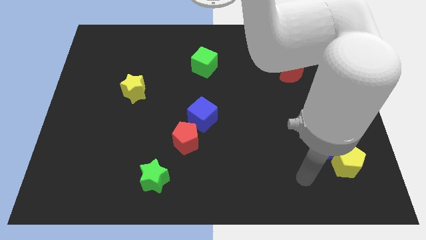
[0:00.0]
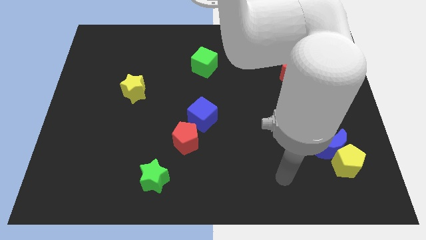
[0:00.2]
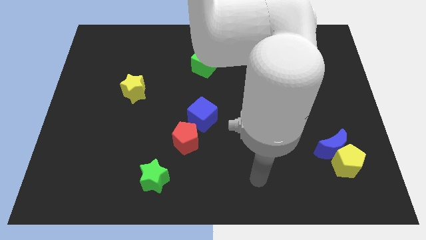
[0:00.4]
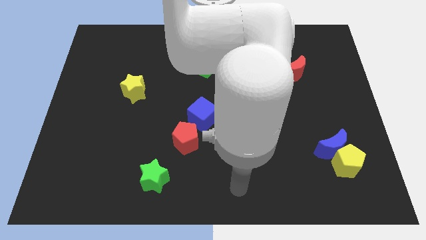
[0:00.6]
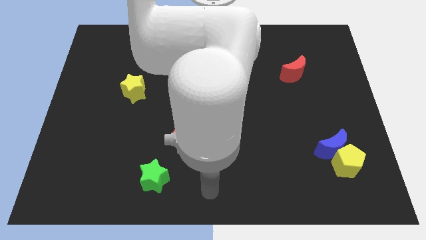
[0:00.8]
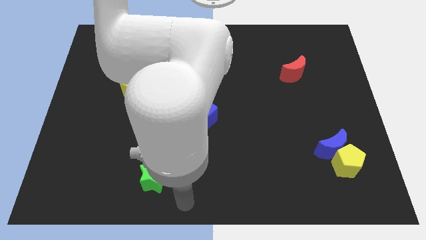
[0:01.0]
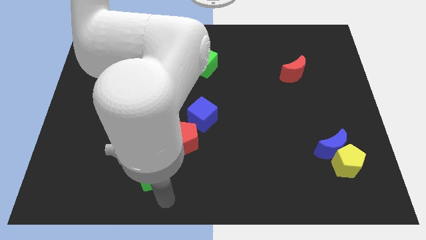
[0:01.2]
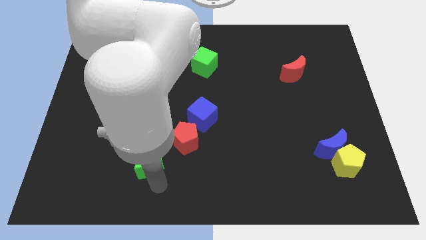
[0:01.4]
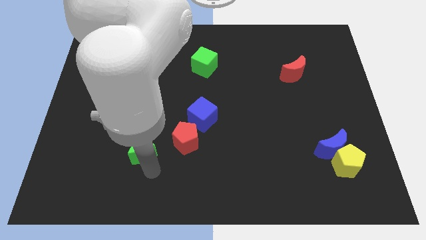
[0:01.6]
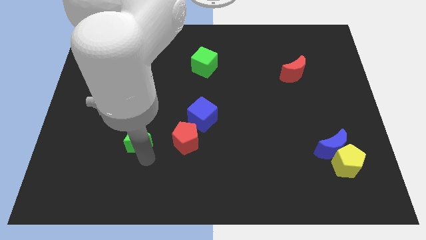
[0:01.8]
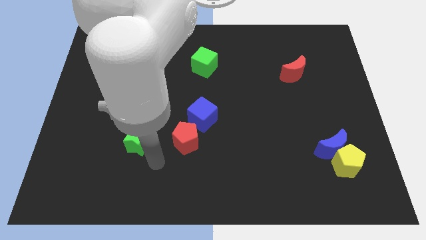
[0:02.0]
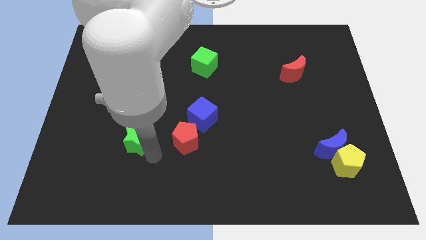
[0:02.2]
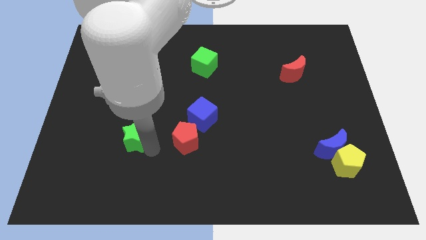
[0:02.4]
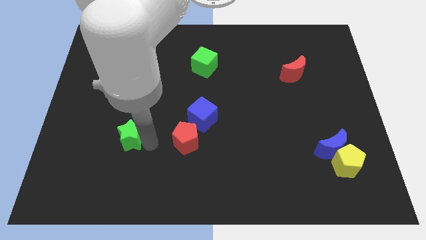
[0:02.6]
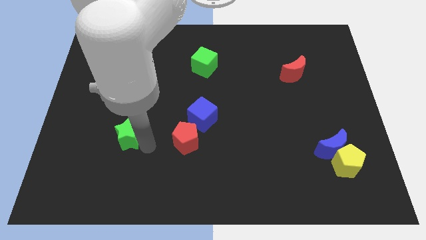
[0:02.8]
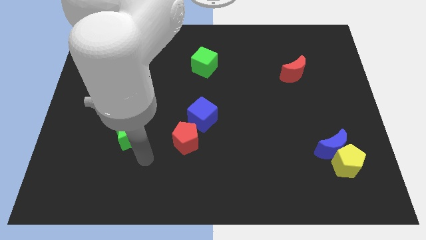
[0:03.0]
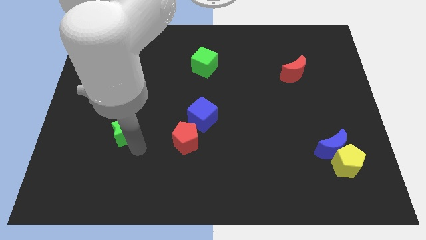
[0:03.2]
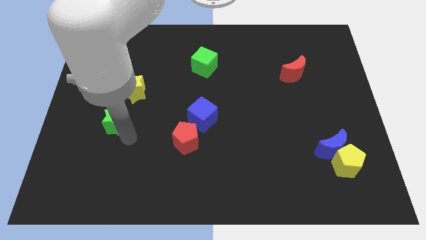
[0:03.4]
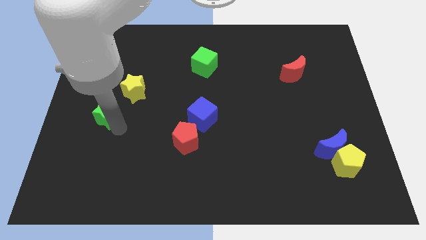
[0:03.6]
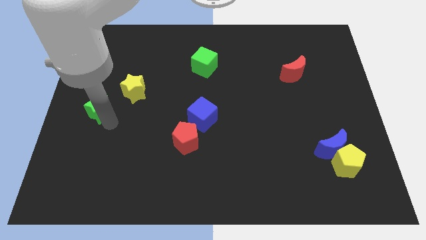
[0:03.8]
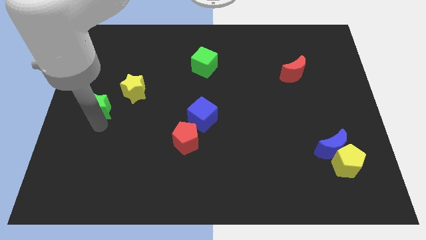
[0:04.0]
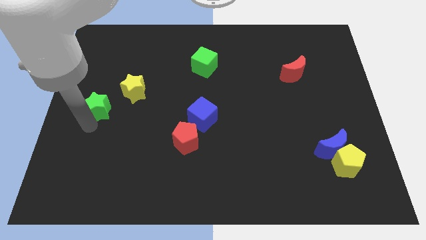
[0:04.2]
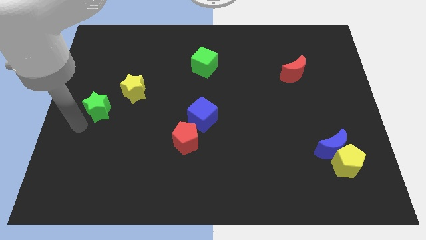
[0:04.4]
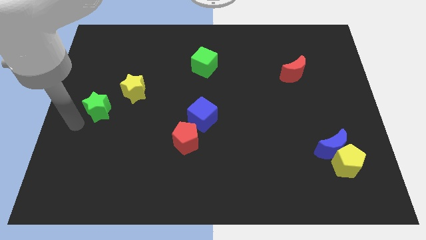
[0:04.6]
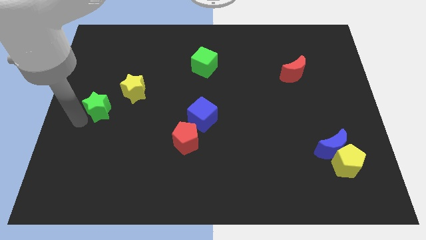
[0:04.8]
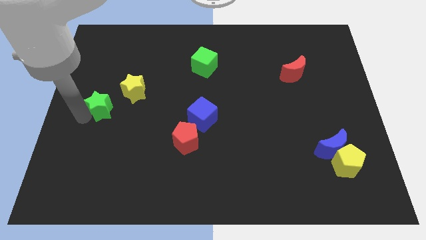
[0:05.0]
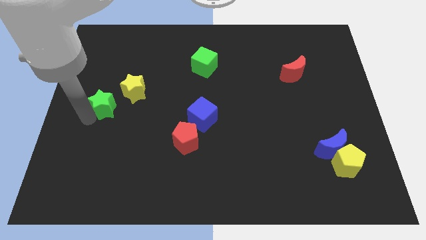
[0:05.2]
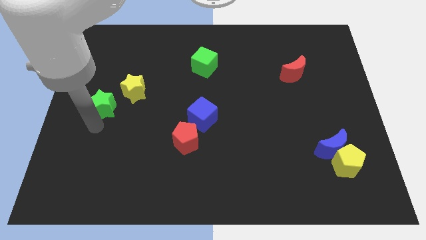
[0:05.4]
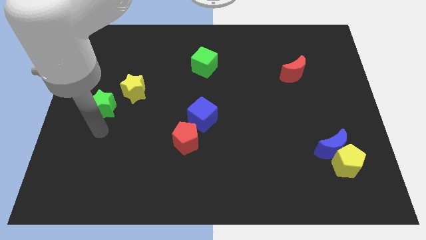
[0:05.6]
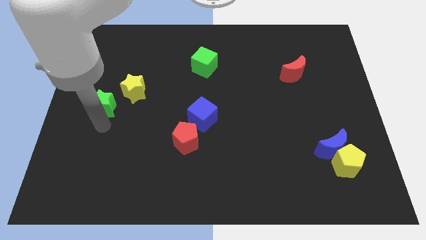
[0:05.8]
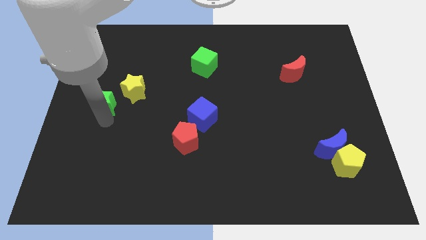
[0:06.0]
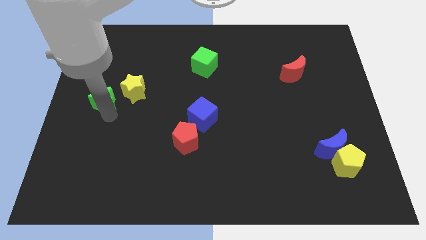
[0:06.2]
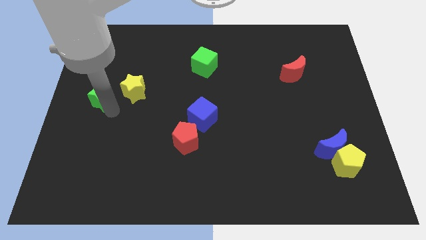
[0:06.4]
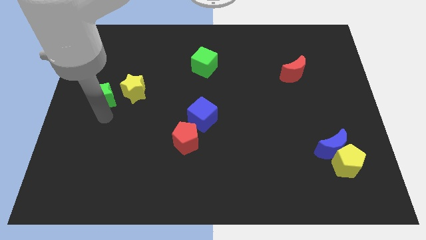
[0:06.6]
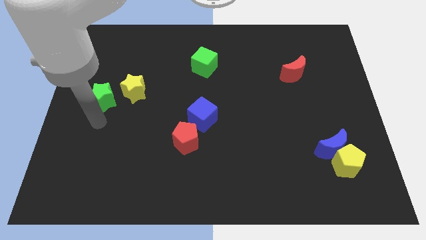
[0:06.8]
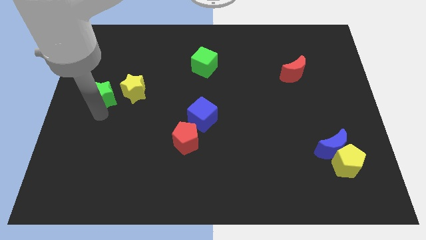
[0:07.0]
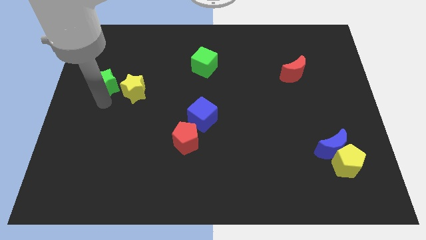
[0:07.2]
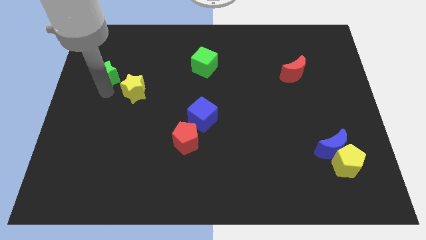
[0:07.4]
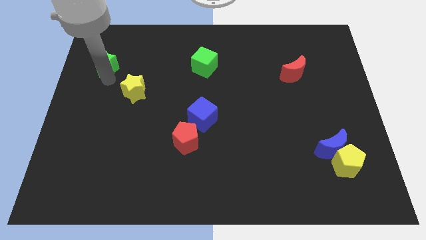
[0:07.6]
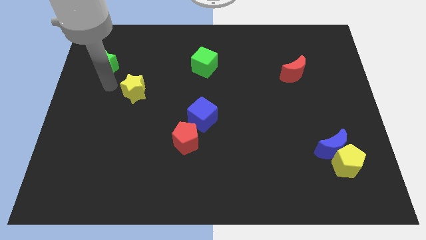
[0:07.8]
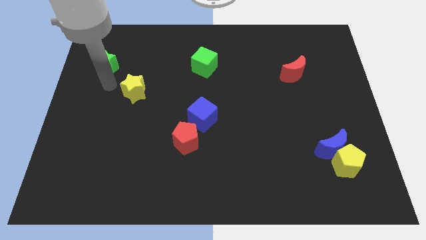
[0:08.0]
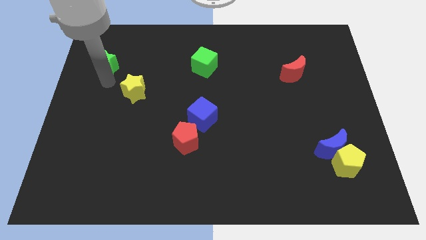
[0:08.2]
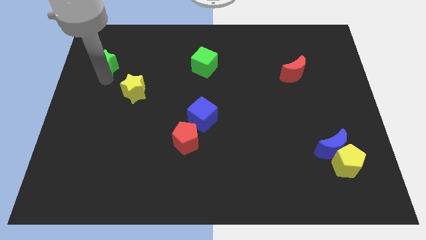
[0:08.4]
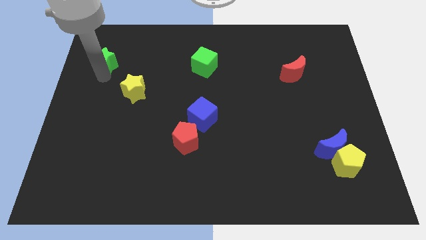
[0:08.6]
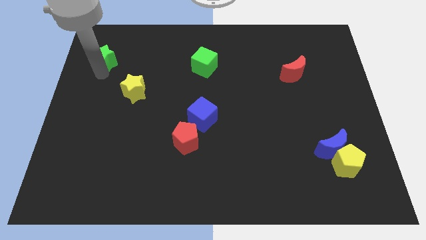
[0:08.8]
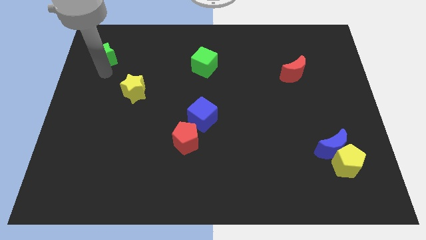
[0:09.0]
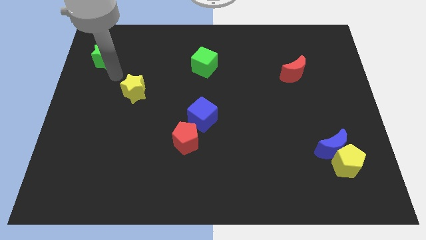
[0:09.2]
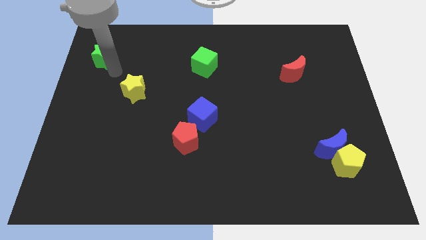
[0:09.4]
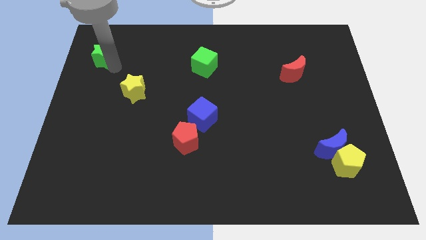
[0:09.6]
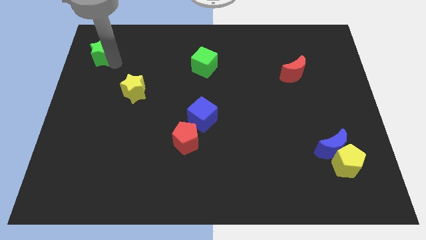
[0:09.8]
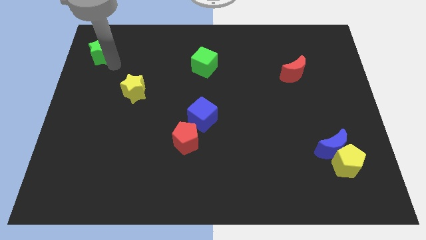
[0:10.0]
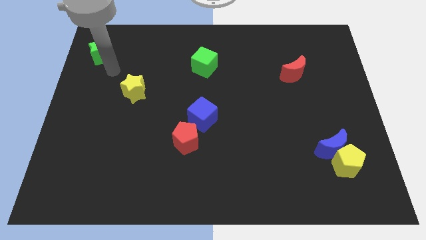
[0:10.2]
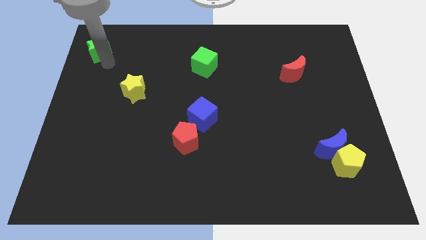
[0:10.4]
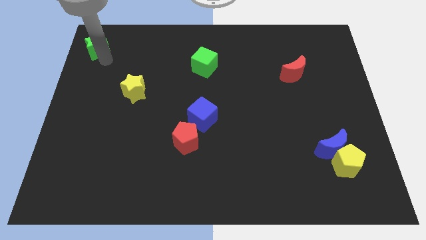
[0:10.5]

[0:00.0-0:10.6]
put the green star to the top left corner

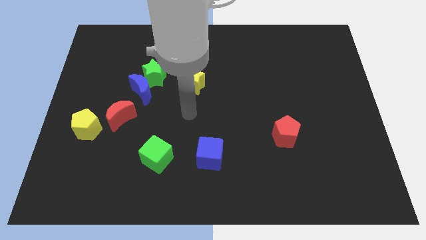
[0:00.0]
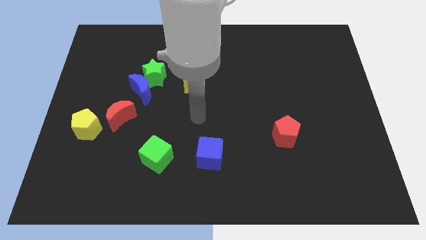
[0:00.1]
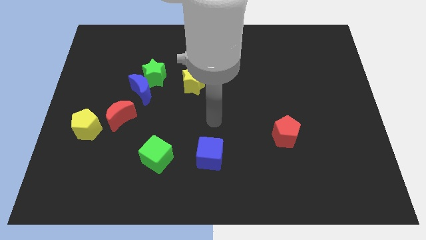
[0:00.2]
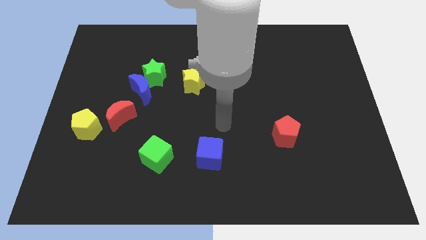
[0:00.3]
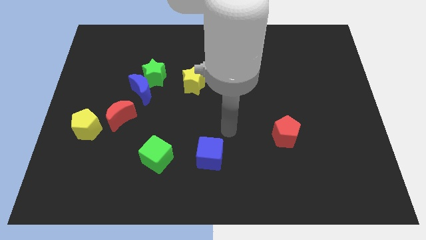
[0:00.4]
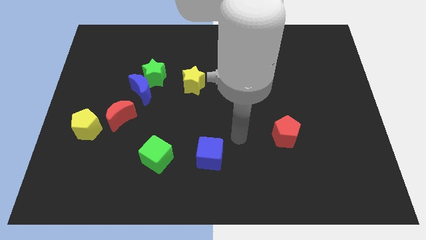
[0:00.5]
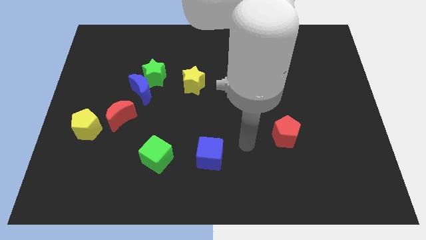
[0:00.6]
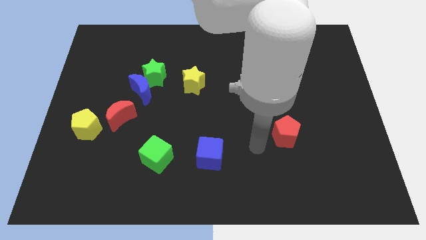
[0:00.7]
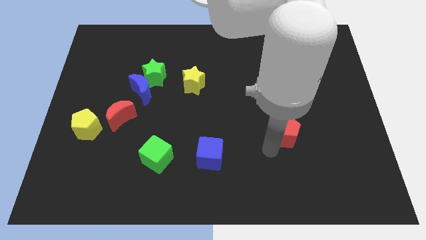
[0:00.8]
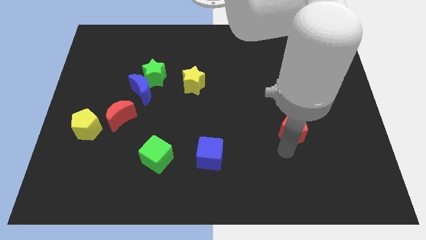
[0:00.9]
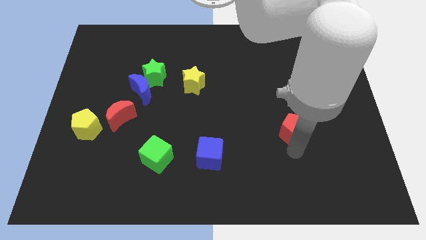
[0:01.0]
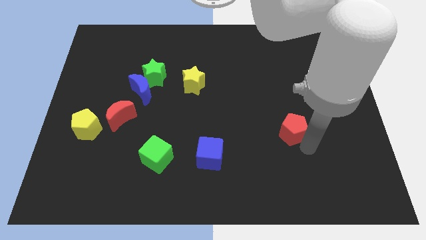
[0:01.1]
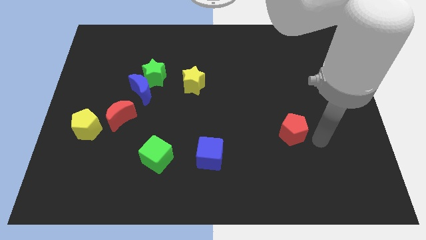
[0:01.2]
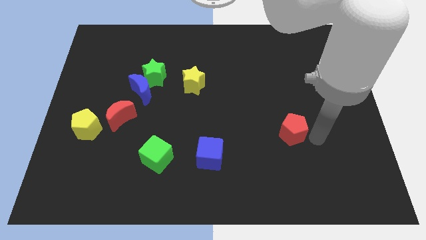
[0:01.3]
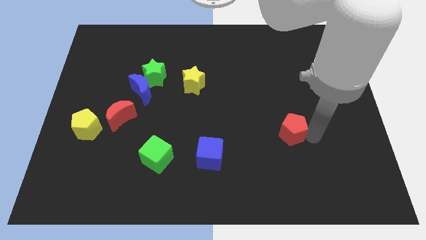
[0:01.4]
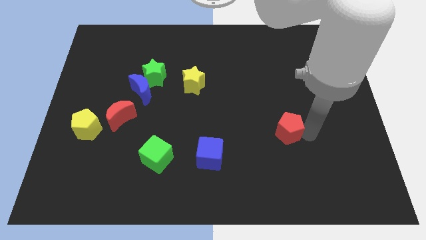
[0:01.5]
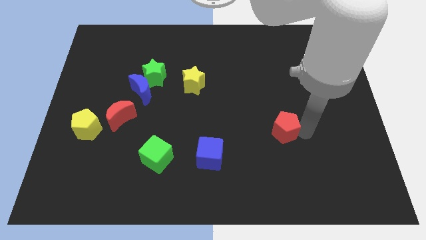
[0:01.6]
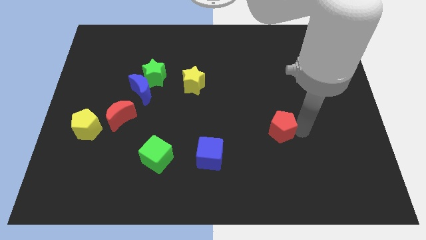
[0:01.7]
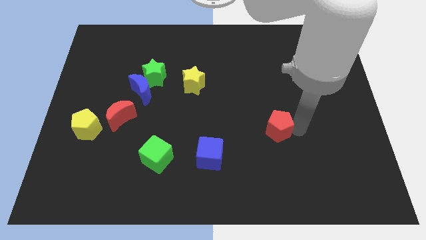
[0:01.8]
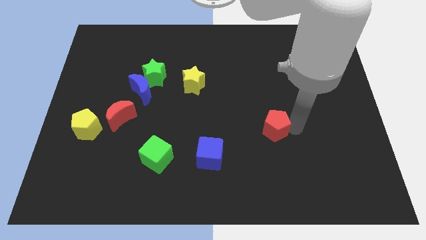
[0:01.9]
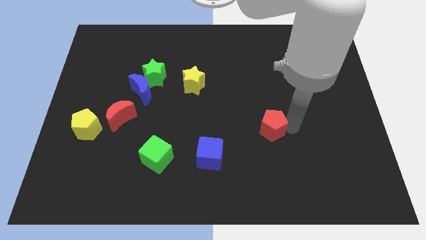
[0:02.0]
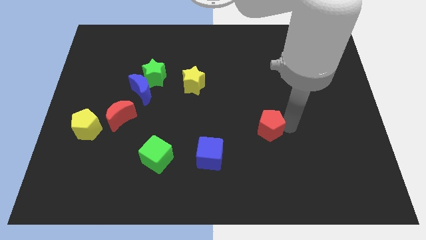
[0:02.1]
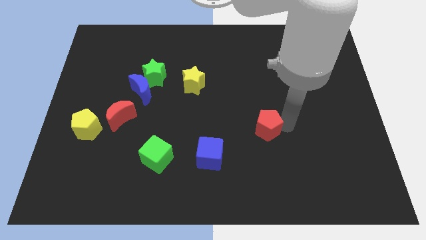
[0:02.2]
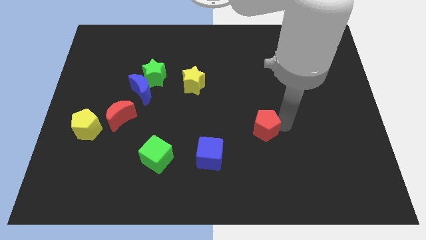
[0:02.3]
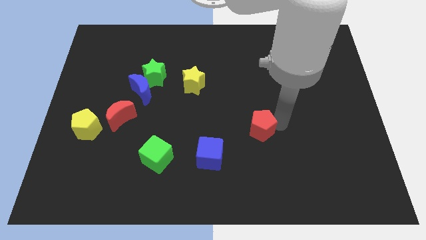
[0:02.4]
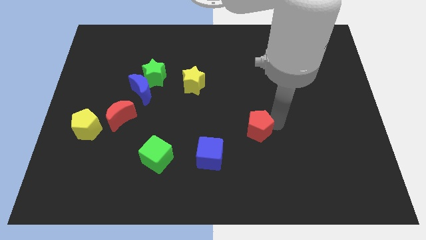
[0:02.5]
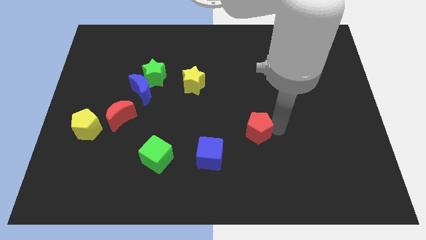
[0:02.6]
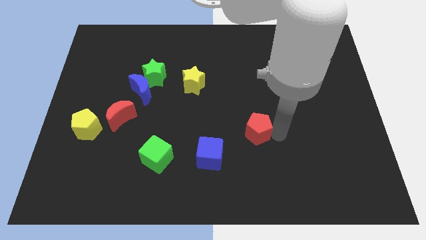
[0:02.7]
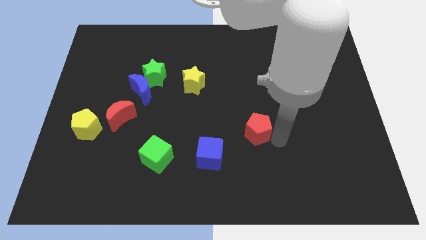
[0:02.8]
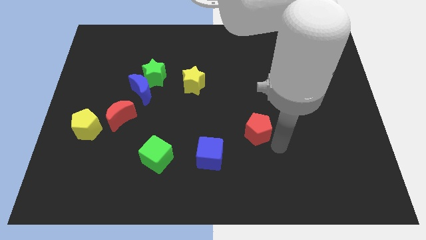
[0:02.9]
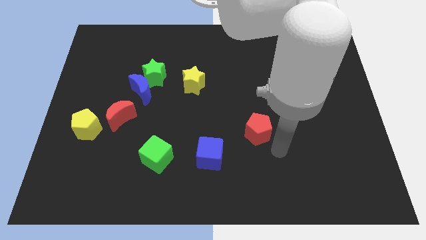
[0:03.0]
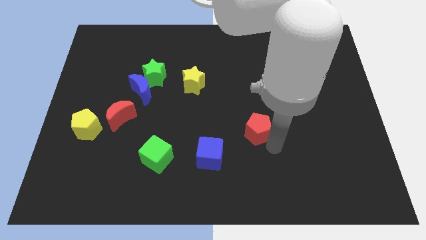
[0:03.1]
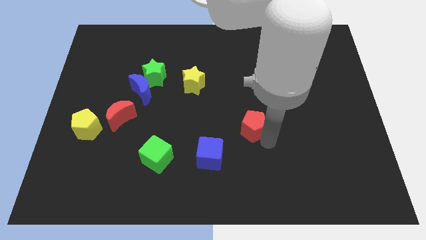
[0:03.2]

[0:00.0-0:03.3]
put the red pentagon to the center
